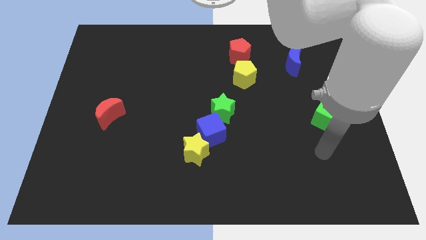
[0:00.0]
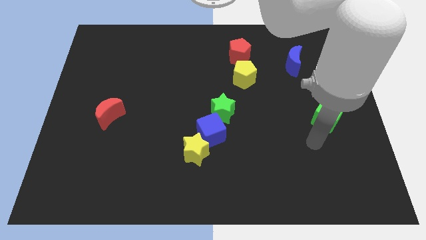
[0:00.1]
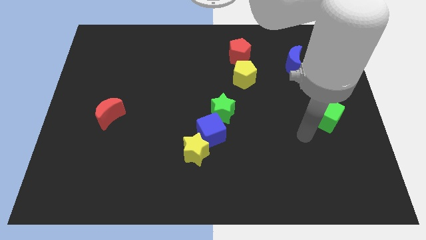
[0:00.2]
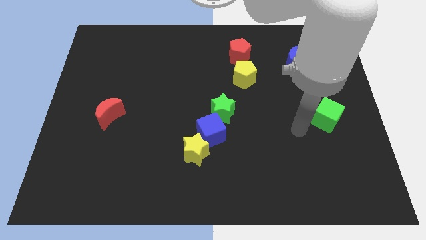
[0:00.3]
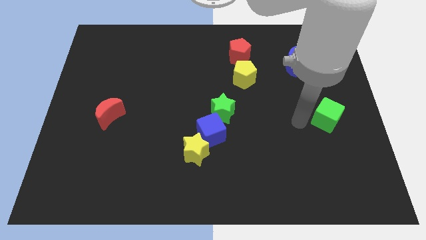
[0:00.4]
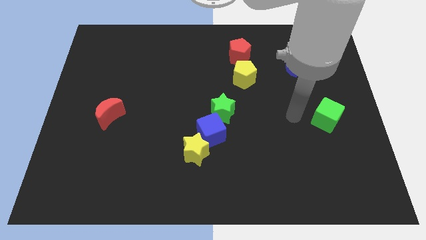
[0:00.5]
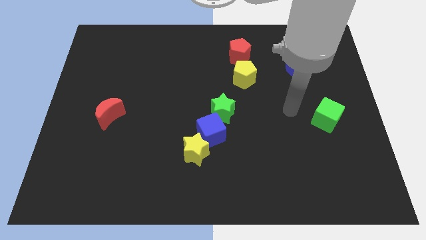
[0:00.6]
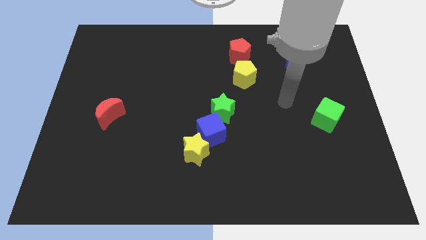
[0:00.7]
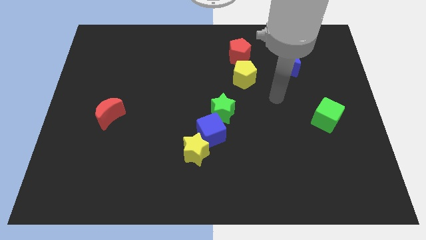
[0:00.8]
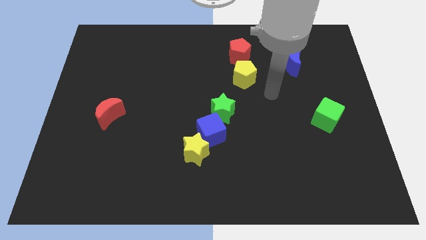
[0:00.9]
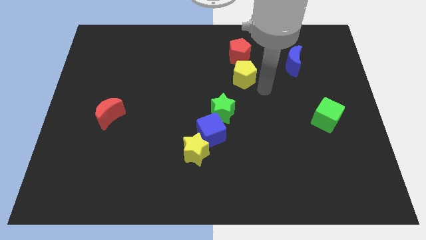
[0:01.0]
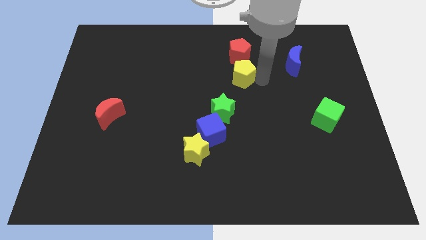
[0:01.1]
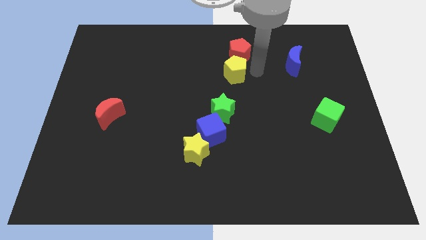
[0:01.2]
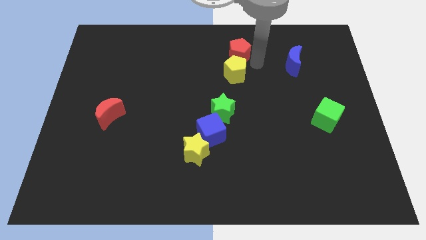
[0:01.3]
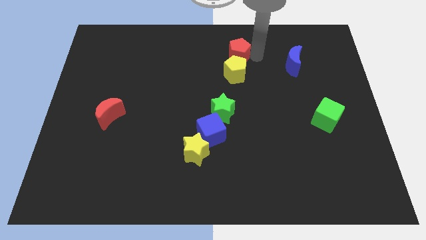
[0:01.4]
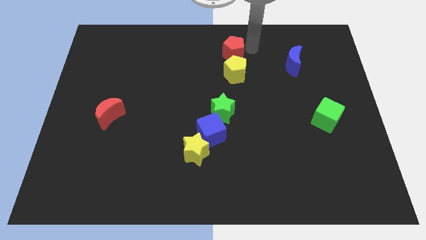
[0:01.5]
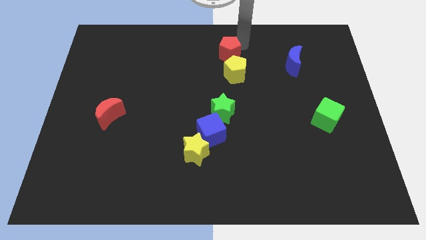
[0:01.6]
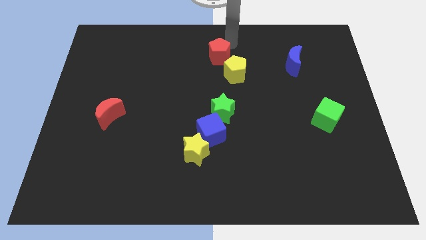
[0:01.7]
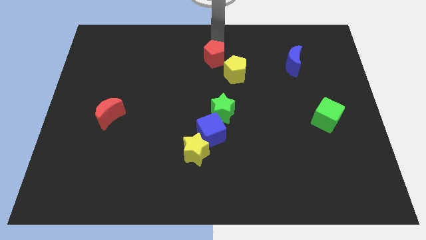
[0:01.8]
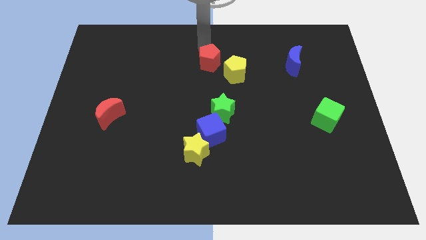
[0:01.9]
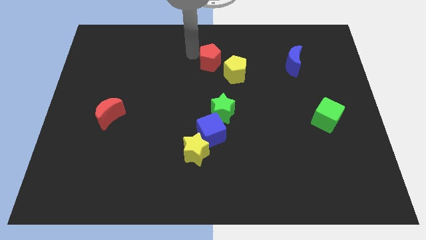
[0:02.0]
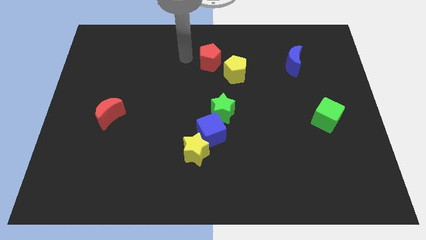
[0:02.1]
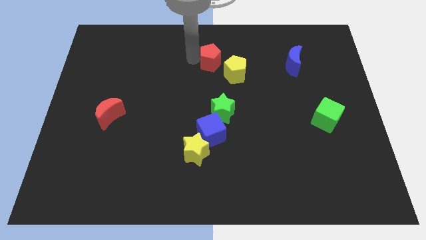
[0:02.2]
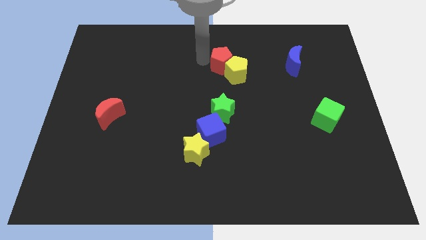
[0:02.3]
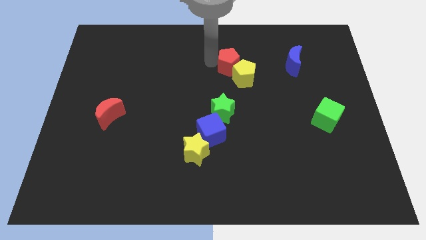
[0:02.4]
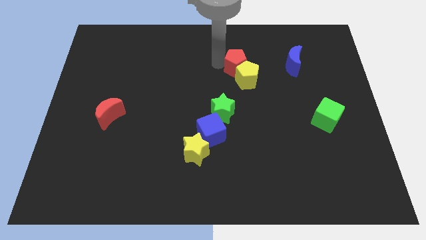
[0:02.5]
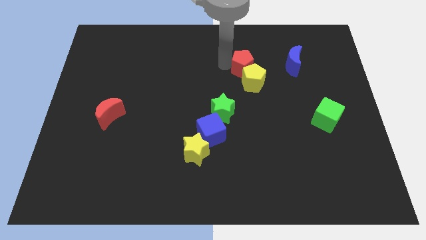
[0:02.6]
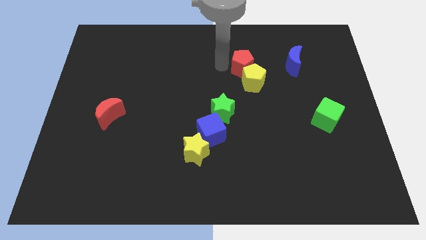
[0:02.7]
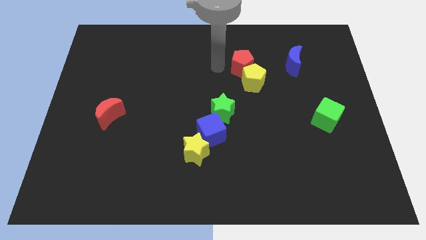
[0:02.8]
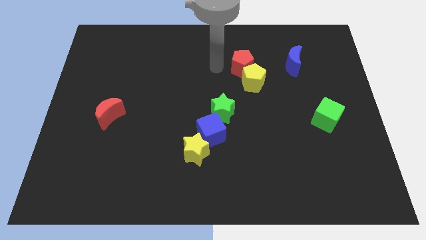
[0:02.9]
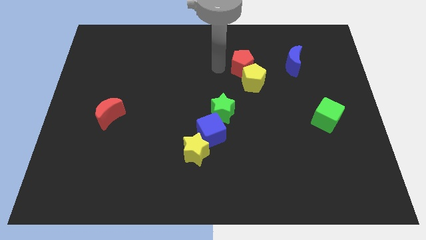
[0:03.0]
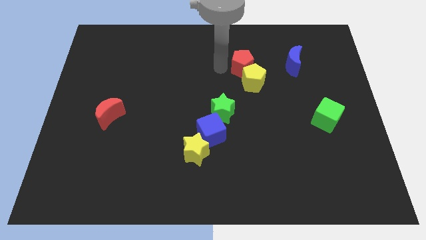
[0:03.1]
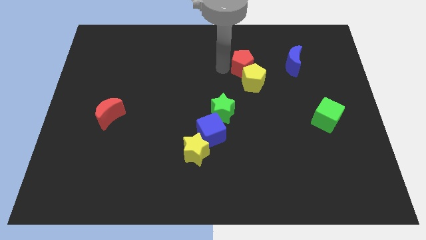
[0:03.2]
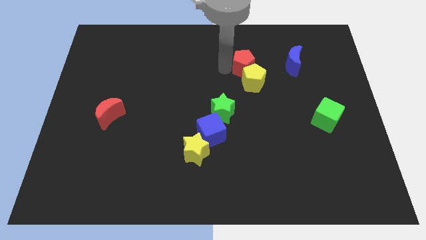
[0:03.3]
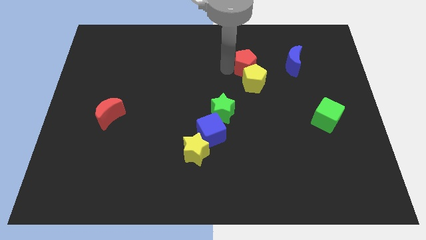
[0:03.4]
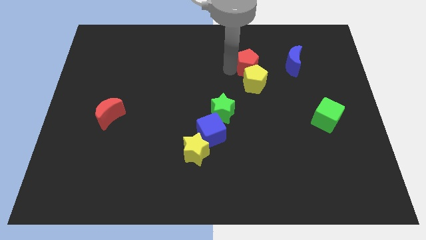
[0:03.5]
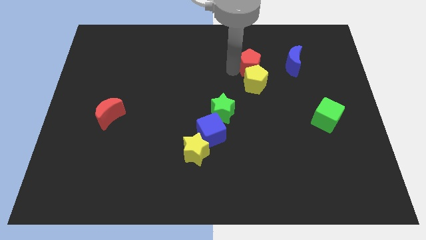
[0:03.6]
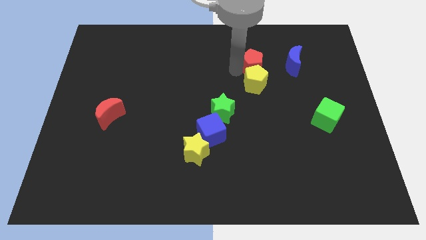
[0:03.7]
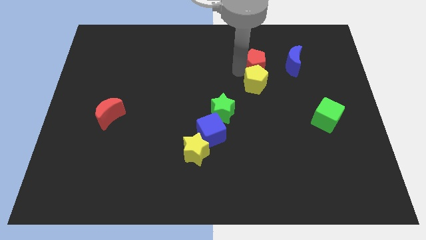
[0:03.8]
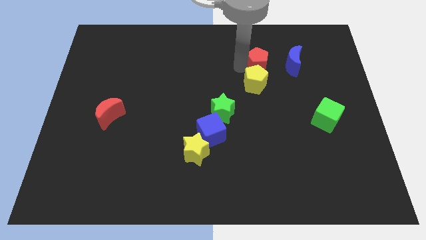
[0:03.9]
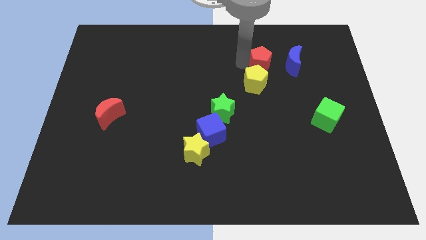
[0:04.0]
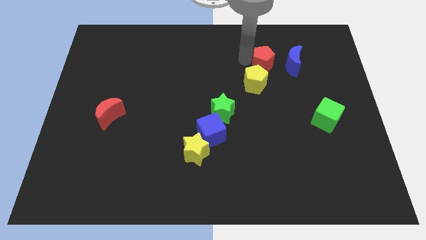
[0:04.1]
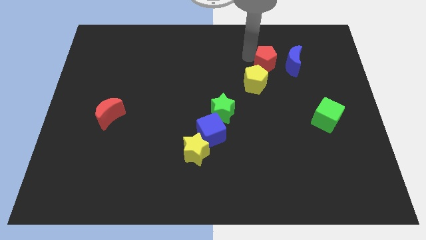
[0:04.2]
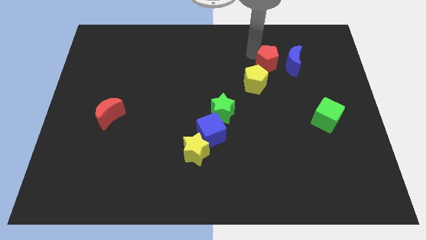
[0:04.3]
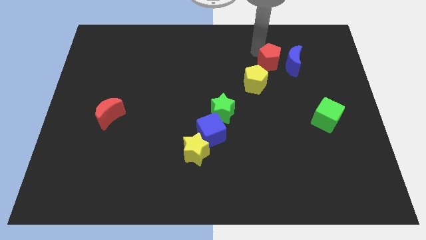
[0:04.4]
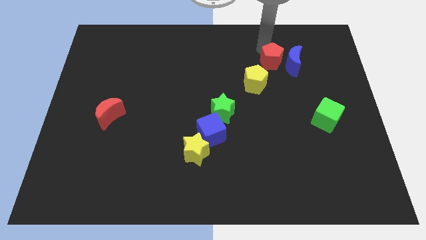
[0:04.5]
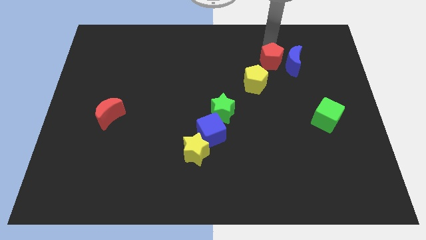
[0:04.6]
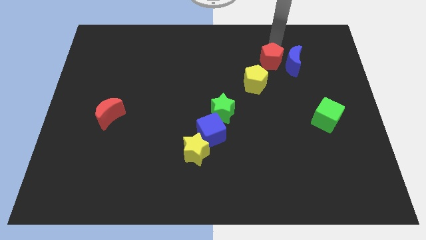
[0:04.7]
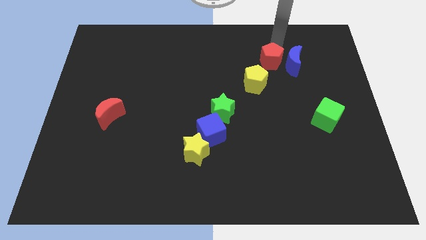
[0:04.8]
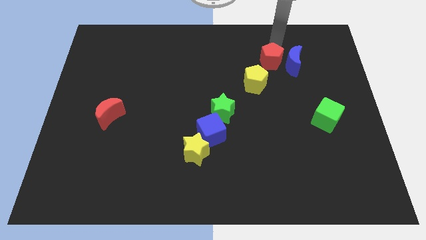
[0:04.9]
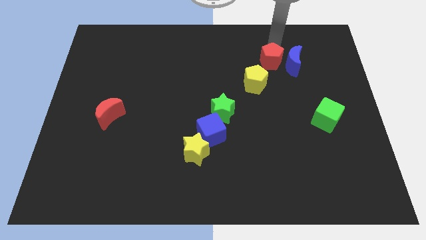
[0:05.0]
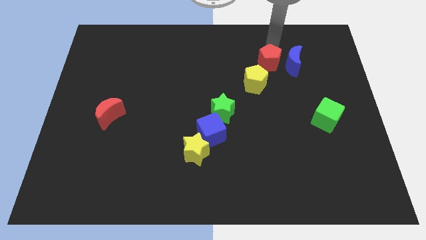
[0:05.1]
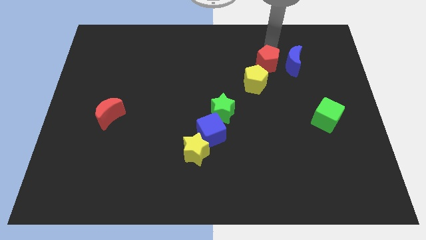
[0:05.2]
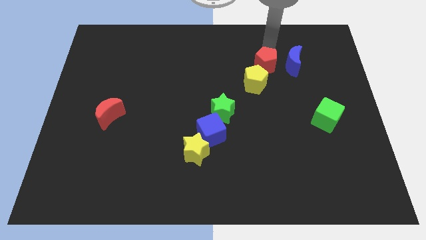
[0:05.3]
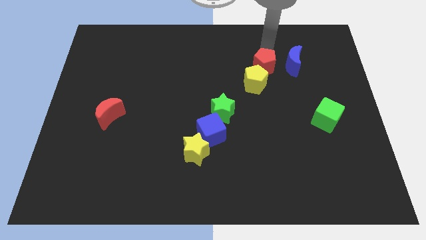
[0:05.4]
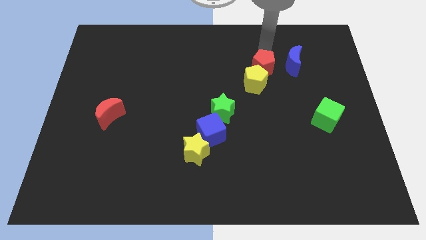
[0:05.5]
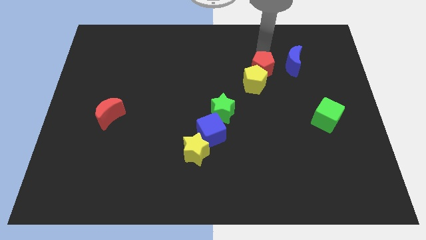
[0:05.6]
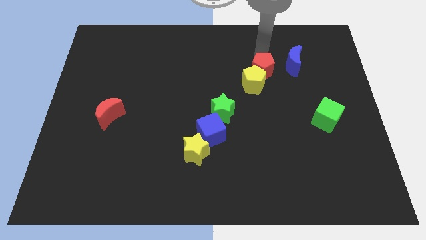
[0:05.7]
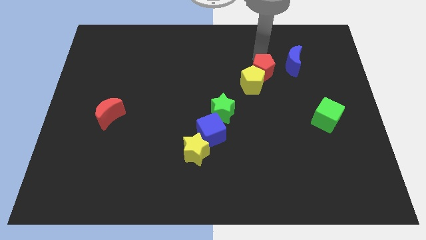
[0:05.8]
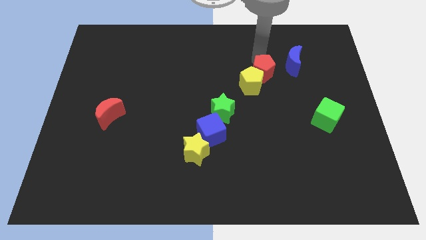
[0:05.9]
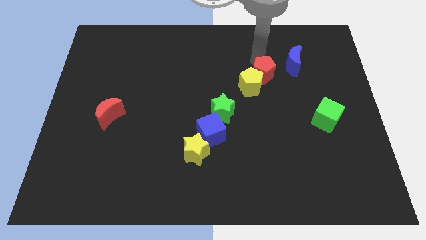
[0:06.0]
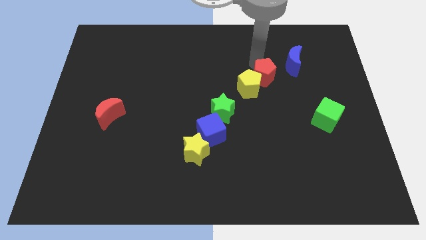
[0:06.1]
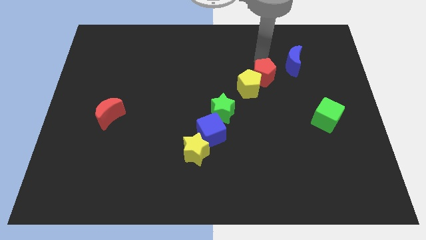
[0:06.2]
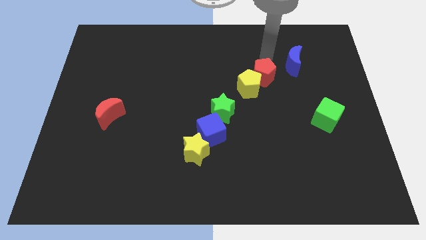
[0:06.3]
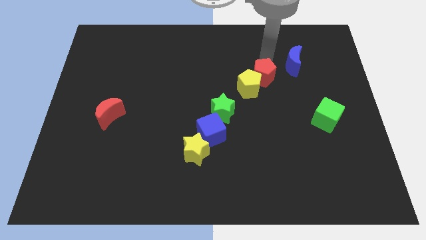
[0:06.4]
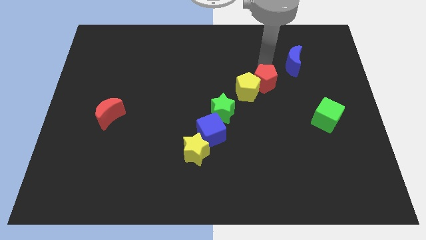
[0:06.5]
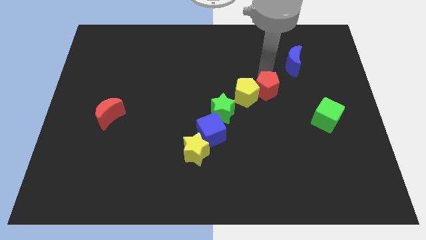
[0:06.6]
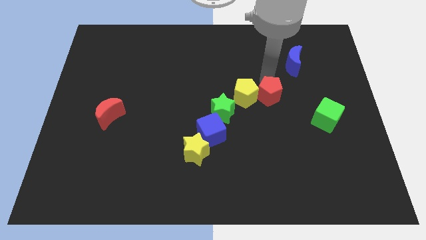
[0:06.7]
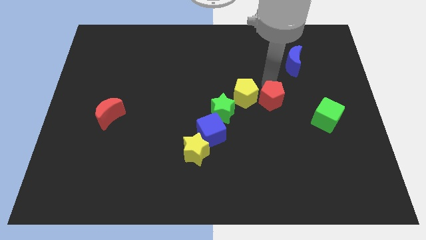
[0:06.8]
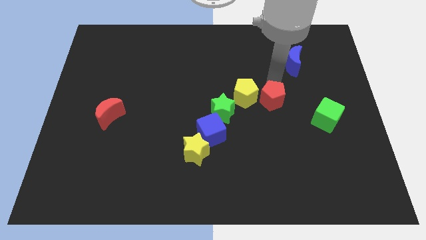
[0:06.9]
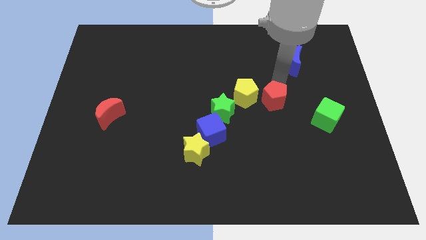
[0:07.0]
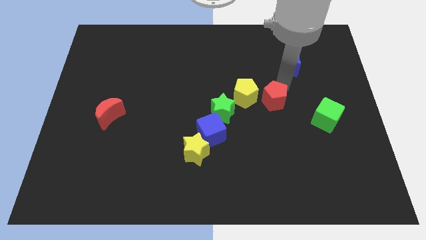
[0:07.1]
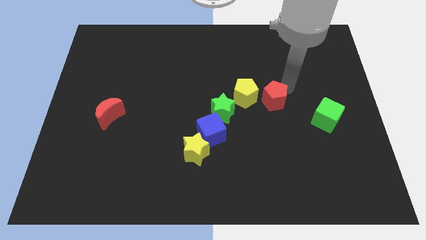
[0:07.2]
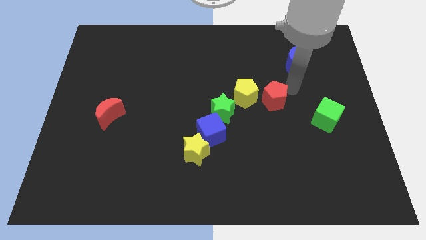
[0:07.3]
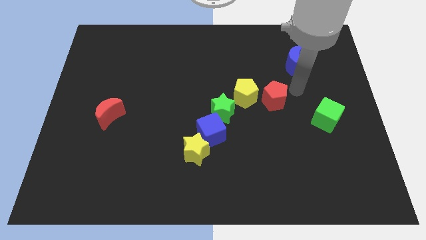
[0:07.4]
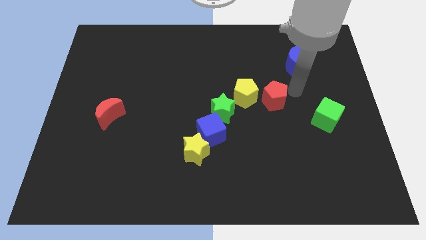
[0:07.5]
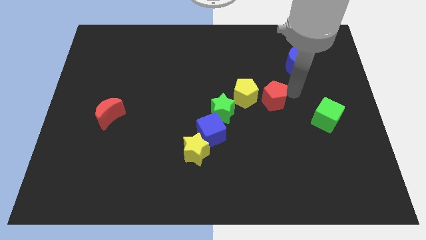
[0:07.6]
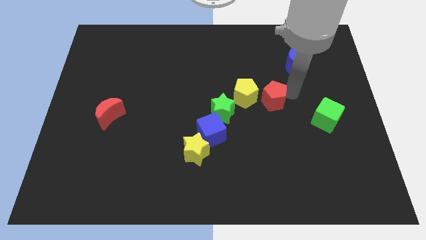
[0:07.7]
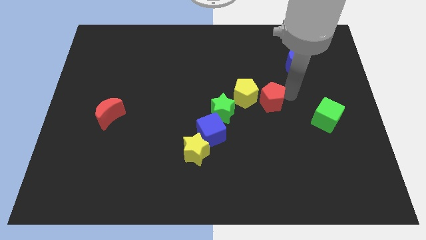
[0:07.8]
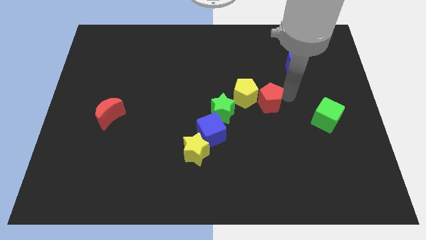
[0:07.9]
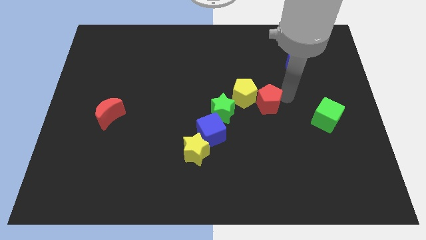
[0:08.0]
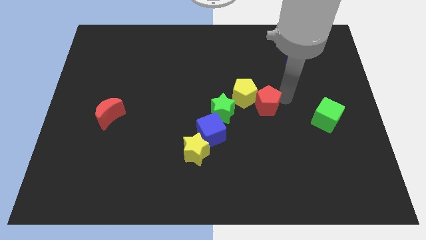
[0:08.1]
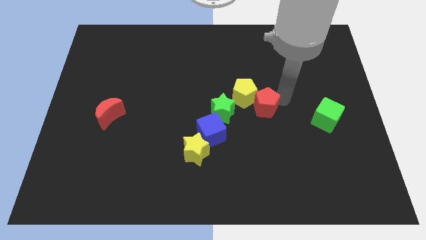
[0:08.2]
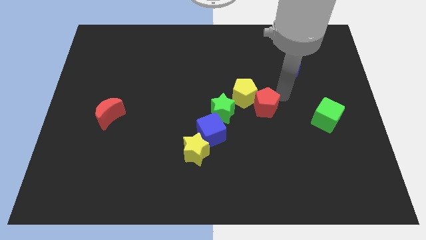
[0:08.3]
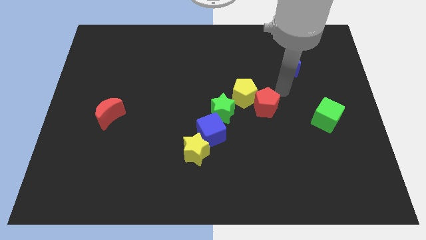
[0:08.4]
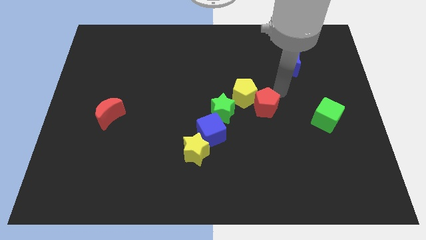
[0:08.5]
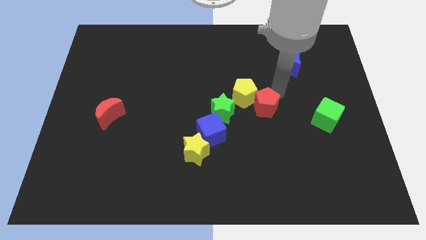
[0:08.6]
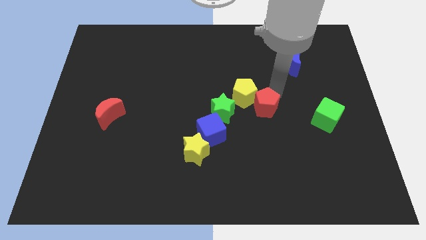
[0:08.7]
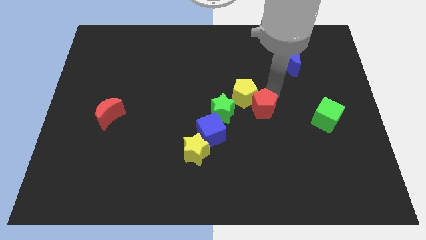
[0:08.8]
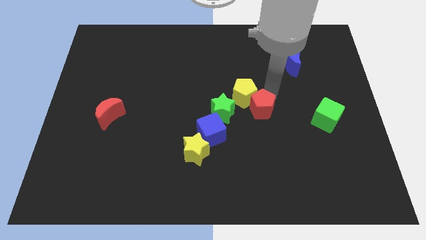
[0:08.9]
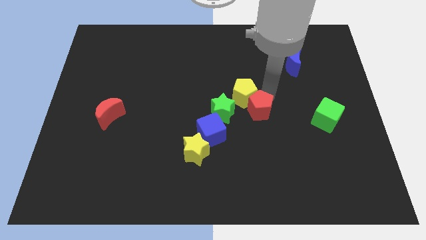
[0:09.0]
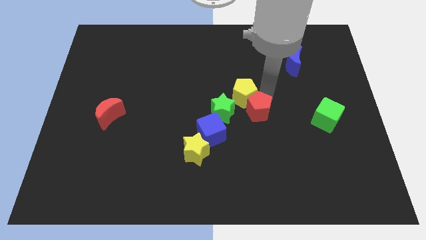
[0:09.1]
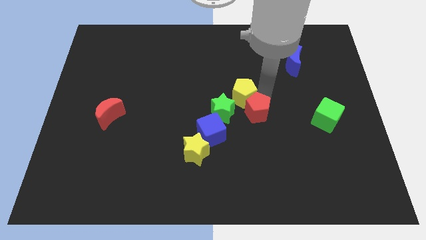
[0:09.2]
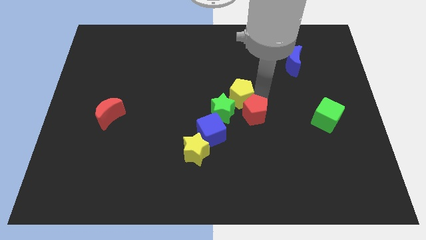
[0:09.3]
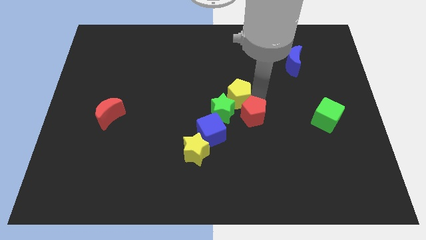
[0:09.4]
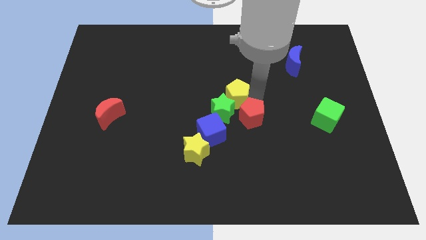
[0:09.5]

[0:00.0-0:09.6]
slide the red pentagon down
